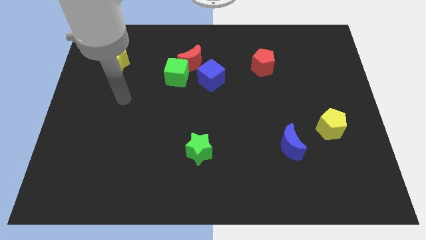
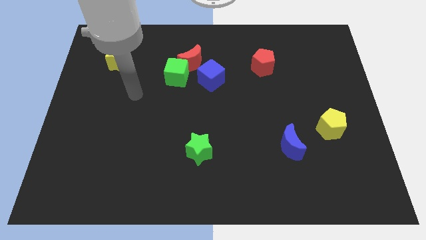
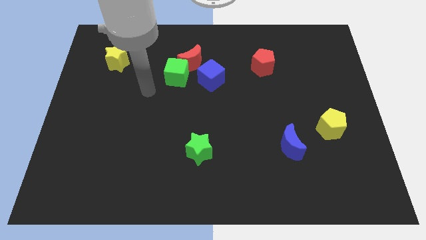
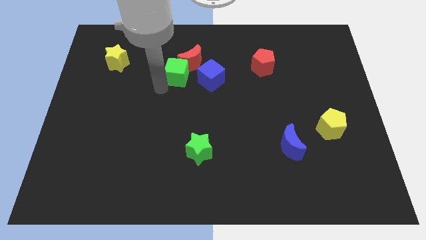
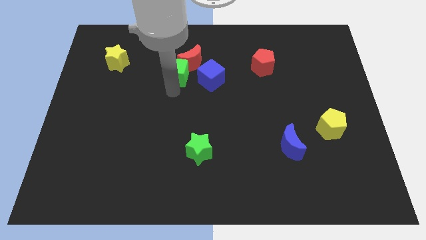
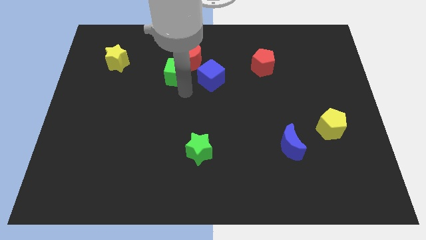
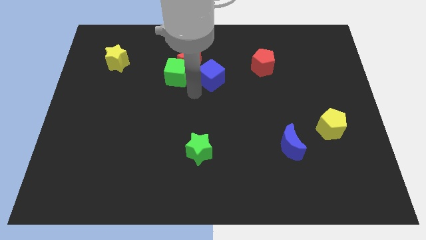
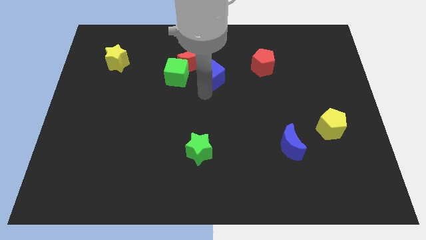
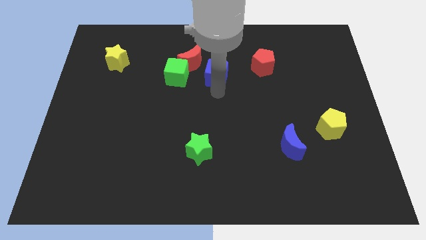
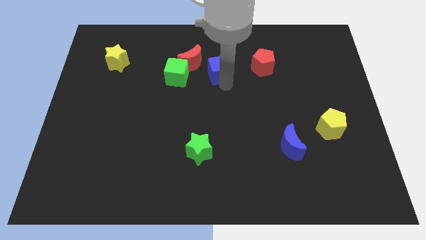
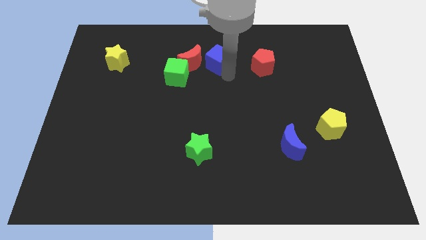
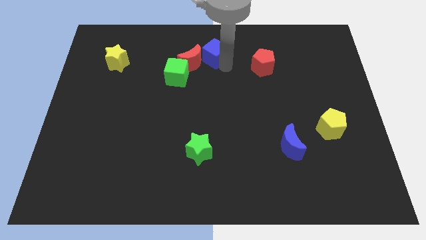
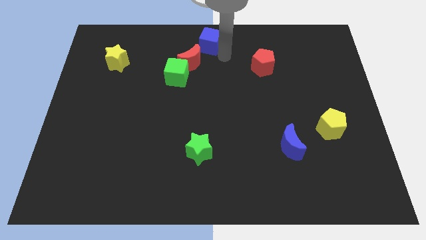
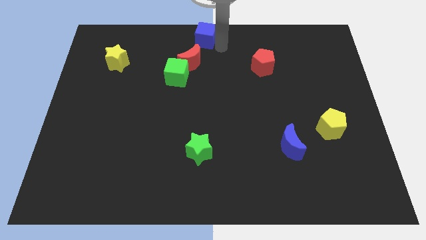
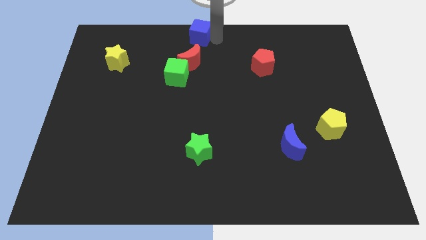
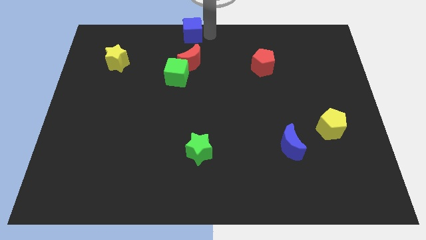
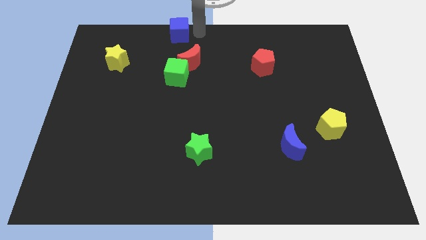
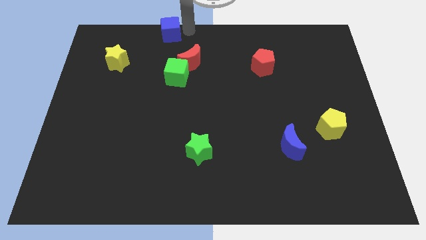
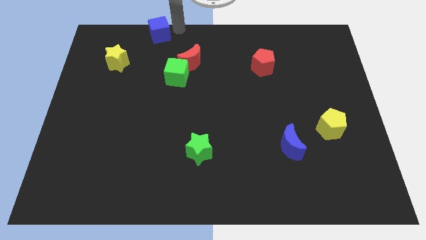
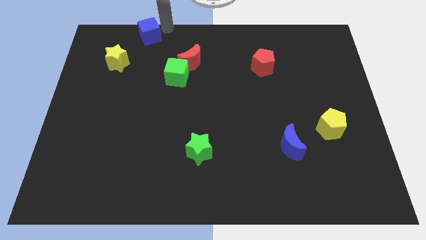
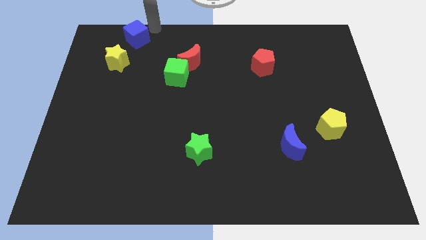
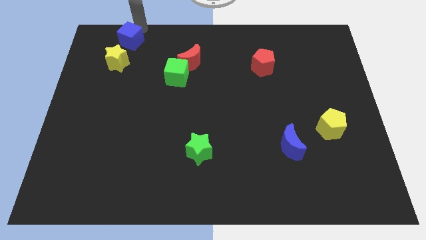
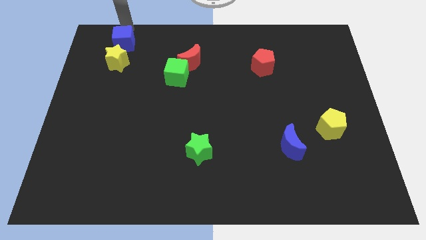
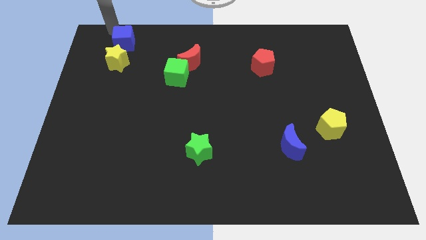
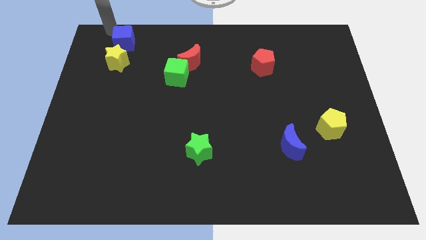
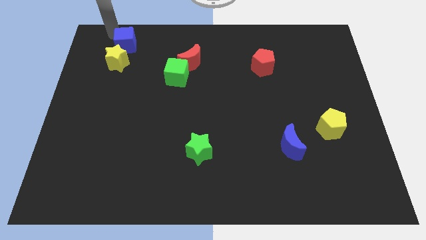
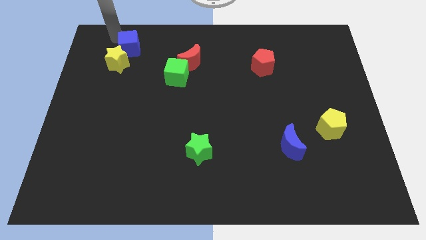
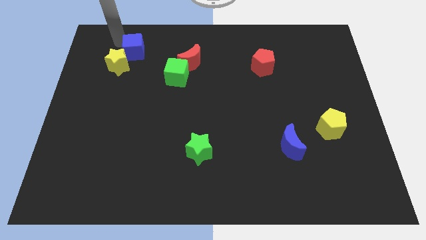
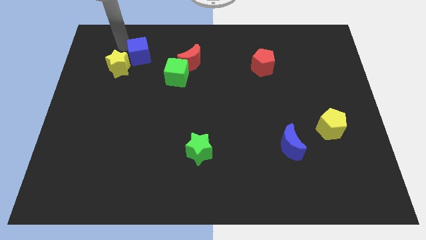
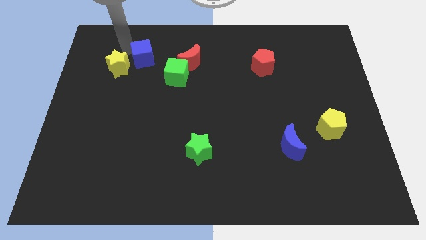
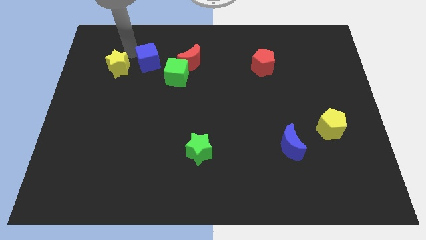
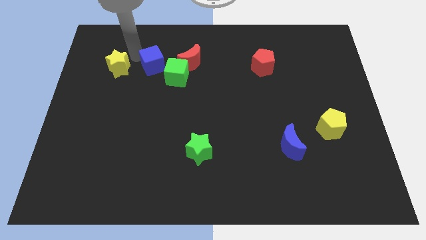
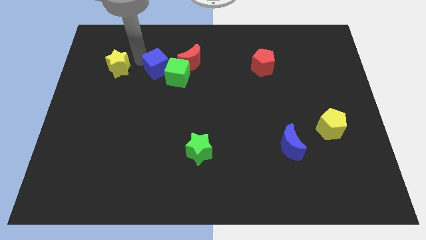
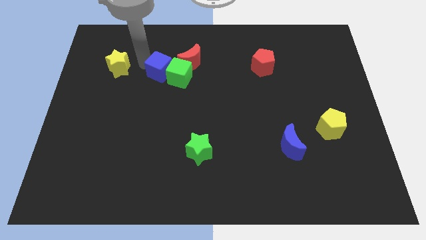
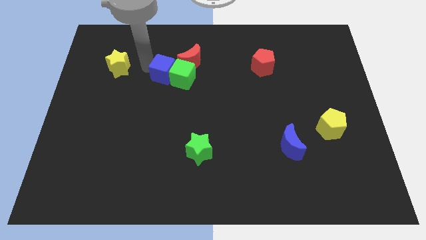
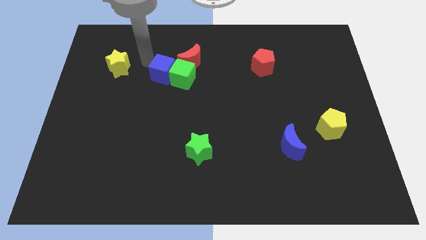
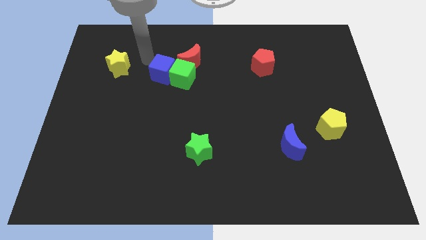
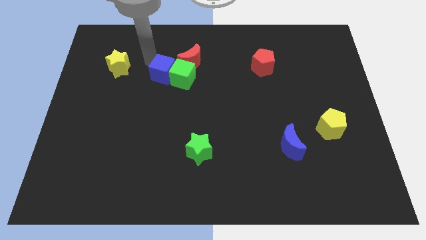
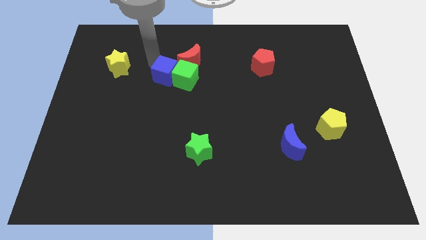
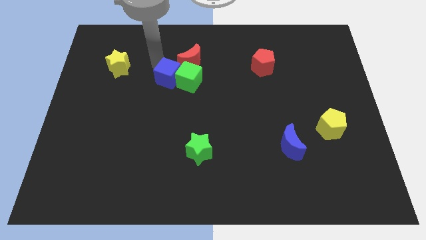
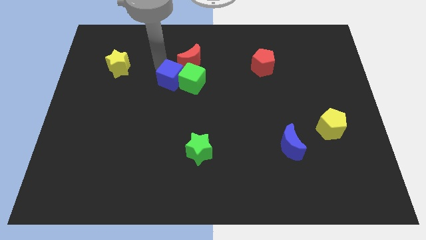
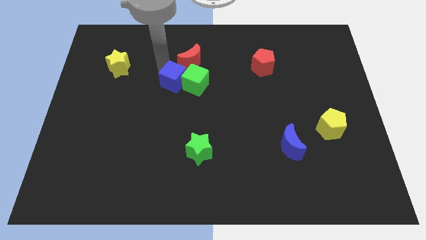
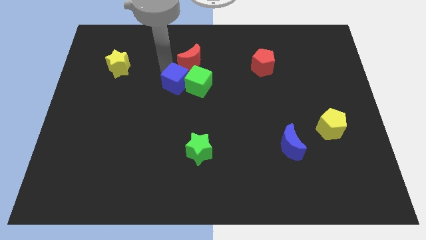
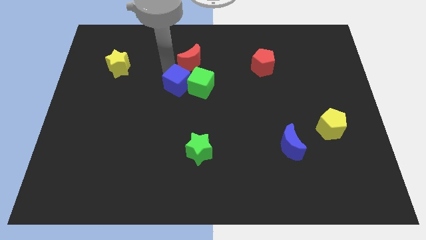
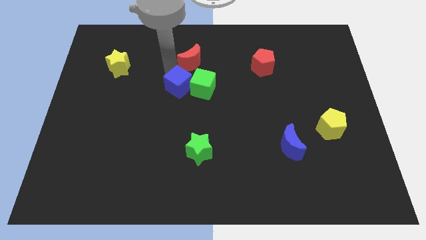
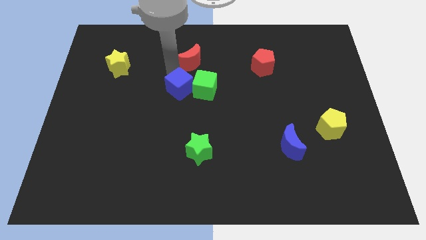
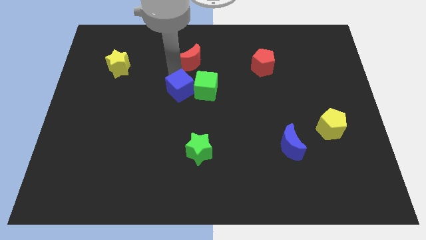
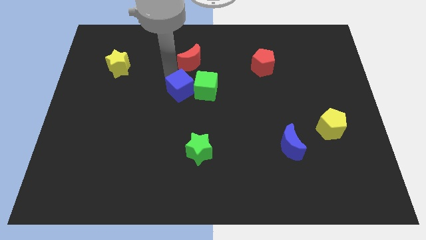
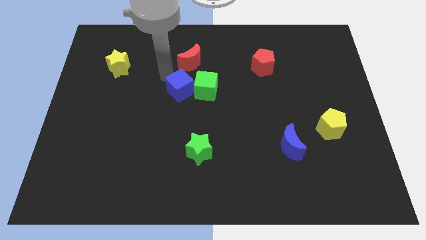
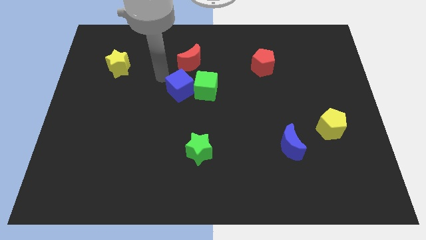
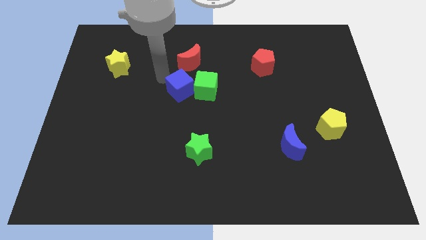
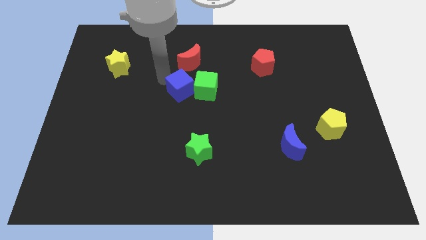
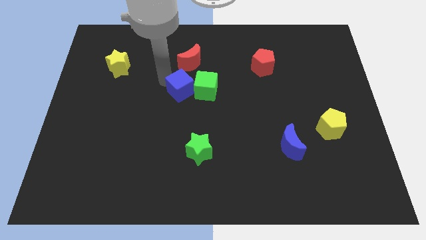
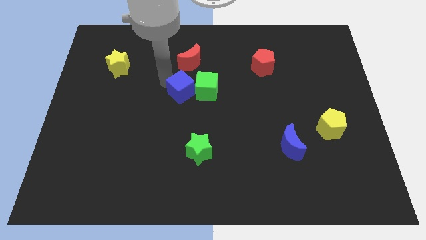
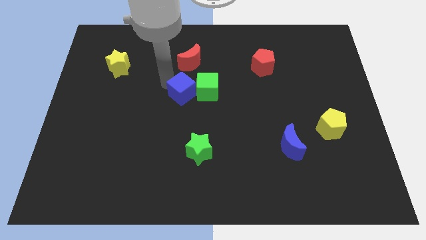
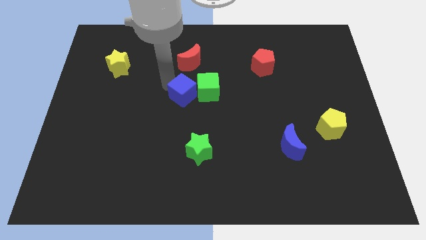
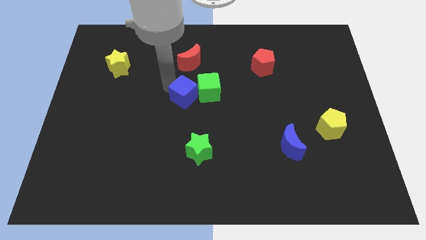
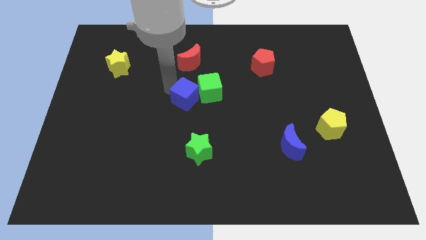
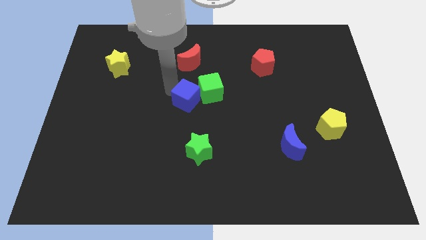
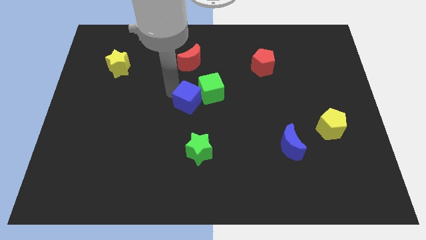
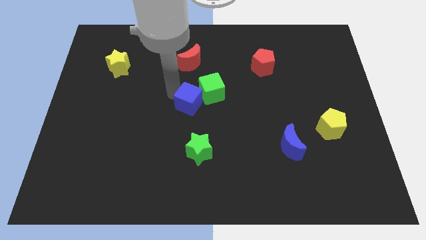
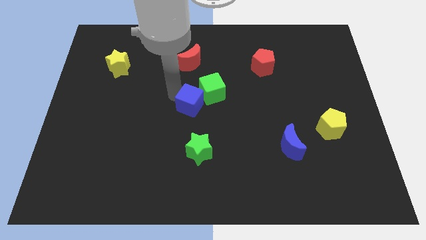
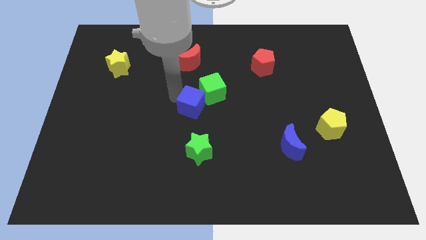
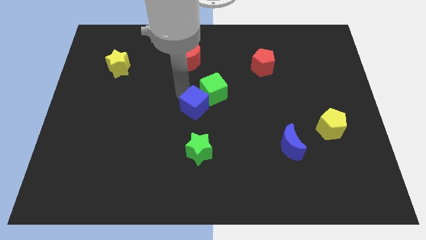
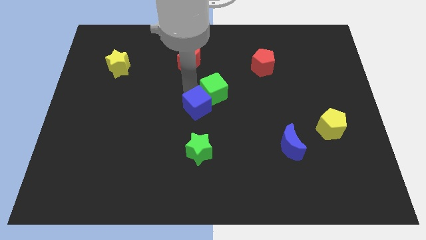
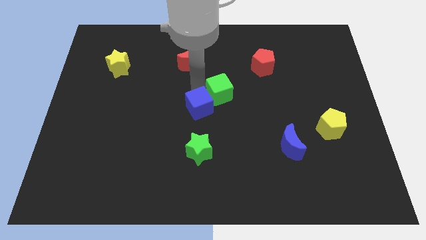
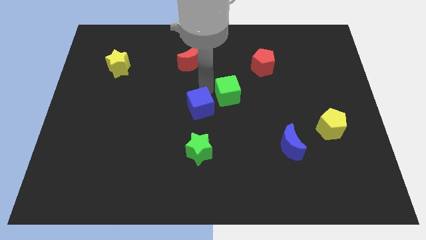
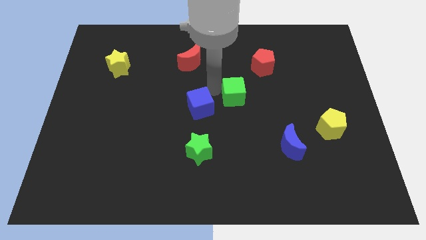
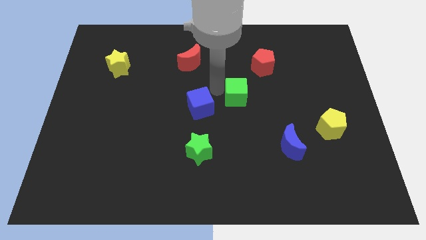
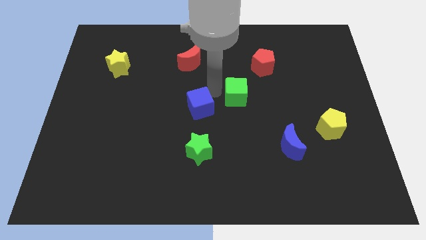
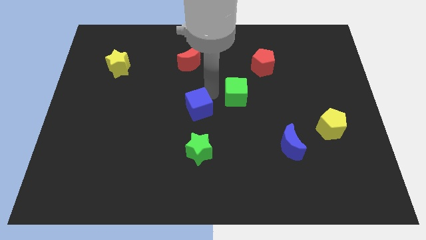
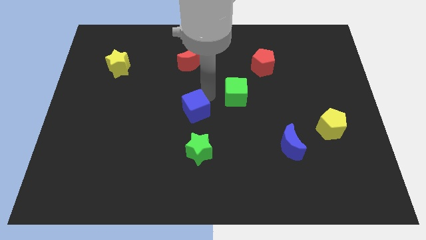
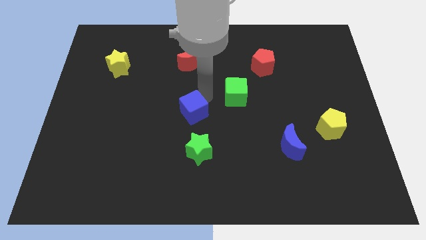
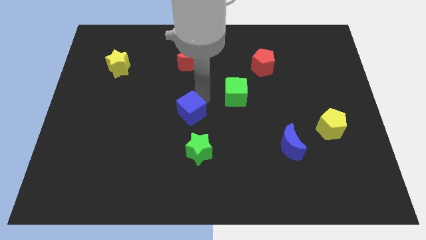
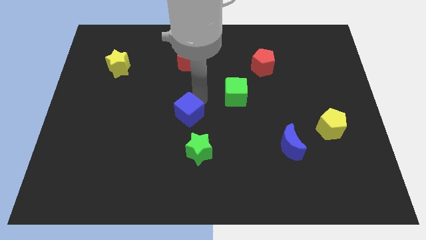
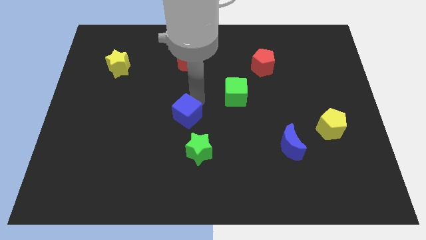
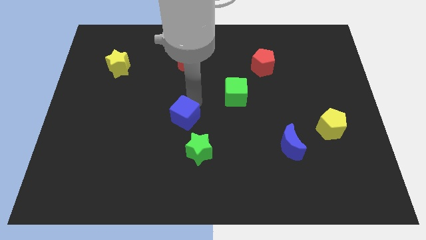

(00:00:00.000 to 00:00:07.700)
put the blue cube to the top left of the green star
